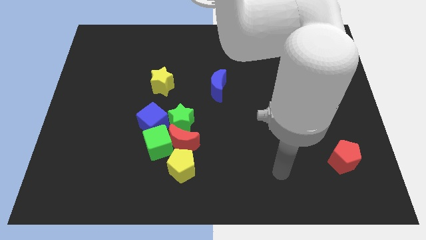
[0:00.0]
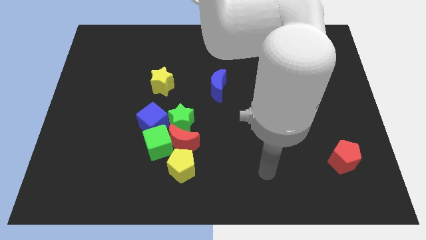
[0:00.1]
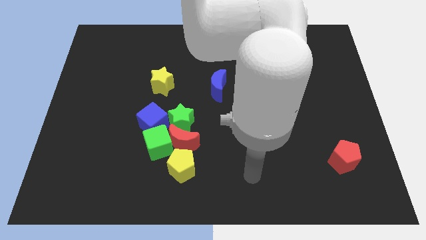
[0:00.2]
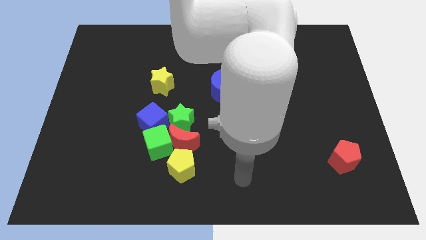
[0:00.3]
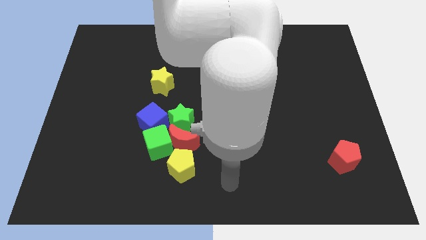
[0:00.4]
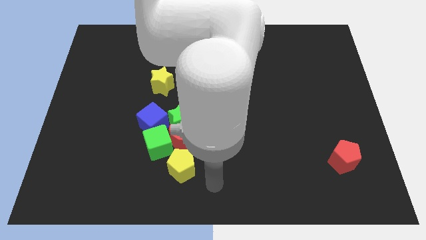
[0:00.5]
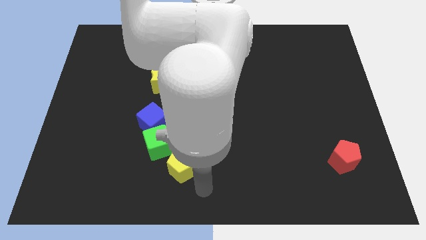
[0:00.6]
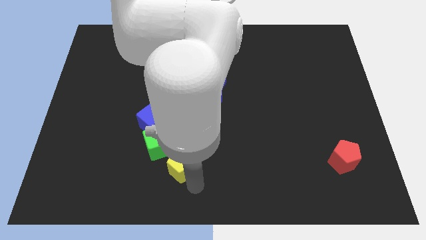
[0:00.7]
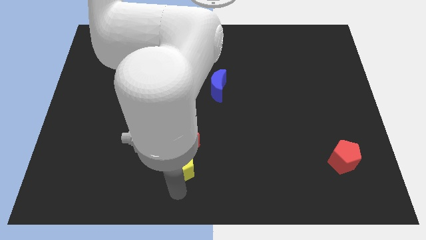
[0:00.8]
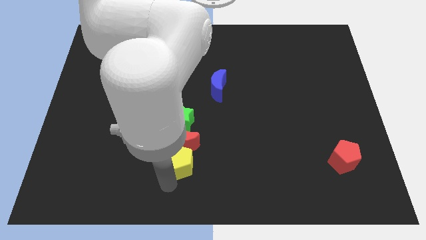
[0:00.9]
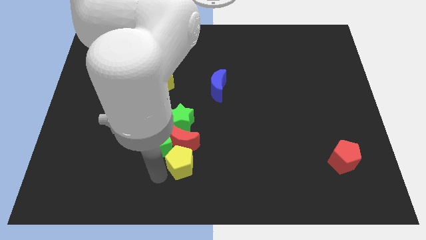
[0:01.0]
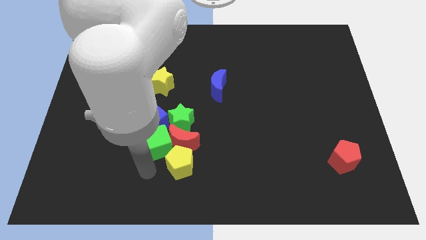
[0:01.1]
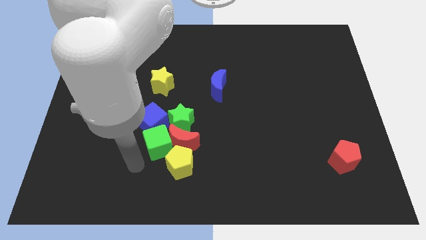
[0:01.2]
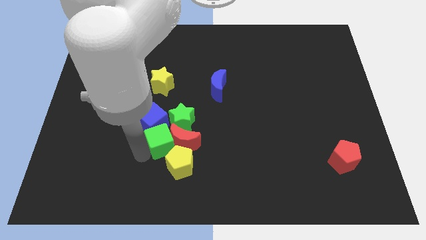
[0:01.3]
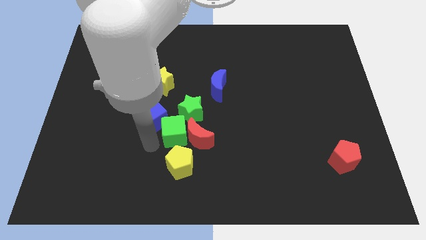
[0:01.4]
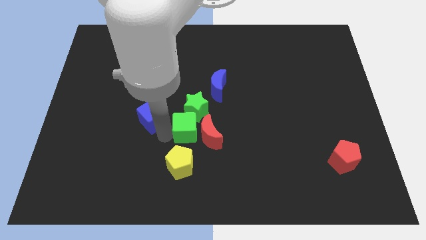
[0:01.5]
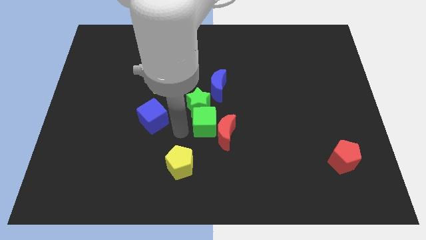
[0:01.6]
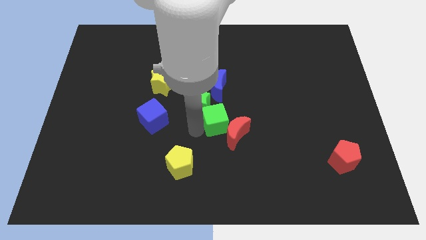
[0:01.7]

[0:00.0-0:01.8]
separate the red moon from the group

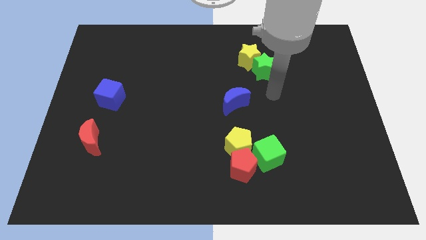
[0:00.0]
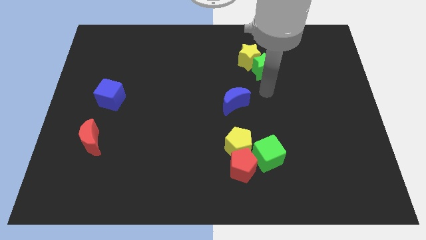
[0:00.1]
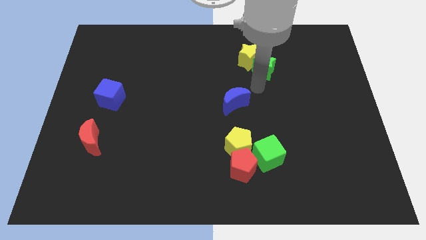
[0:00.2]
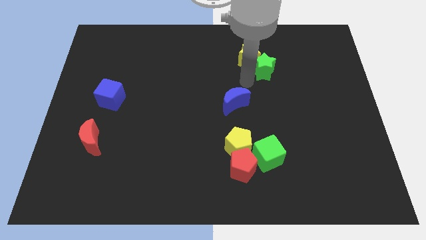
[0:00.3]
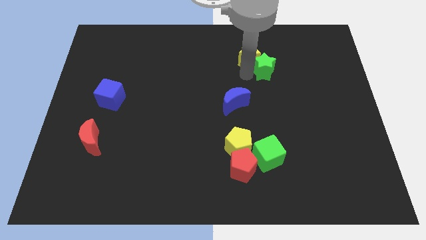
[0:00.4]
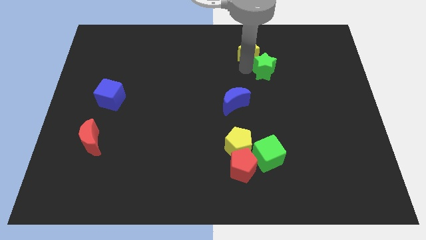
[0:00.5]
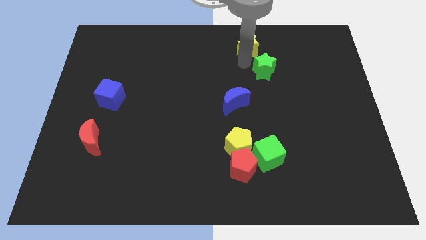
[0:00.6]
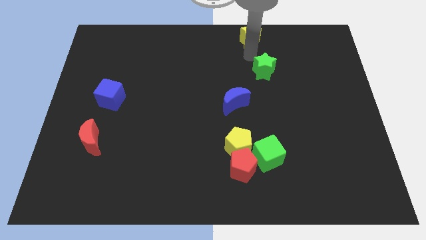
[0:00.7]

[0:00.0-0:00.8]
pull the green star apart from the yellow star

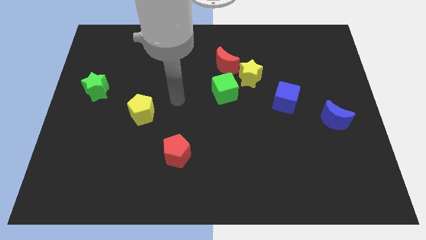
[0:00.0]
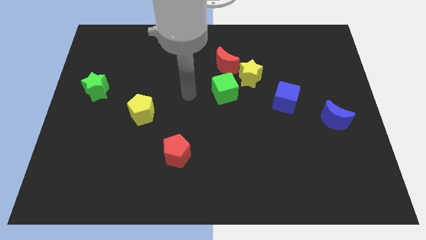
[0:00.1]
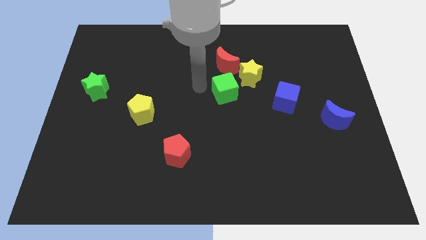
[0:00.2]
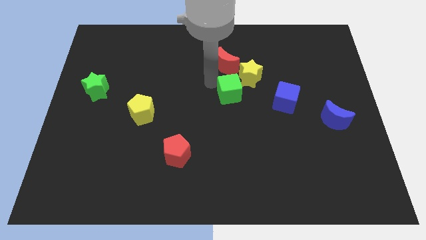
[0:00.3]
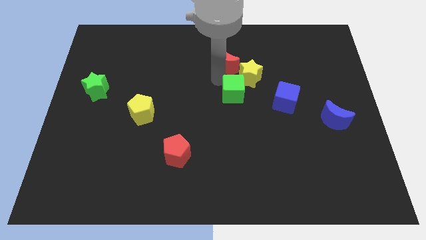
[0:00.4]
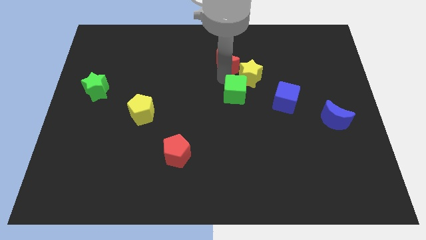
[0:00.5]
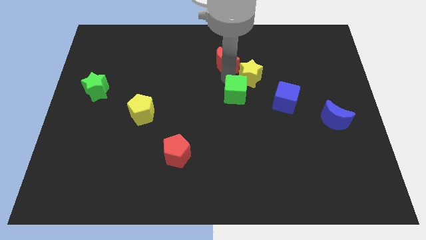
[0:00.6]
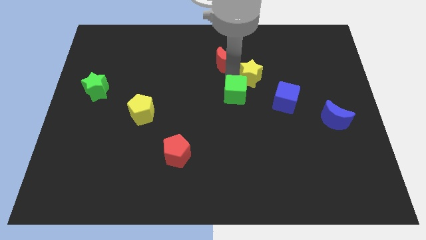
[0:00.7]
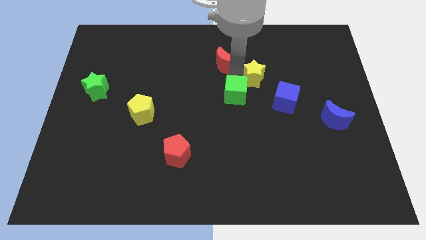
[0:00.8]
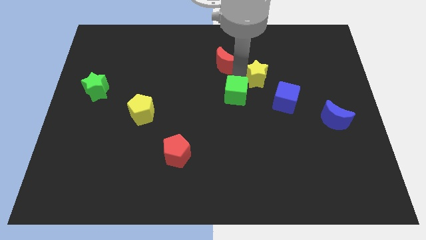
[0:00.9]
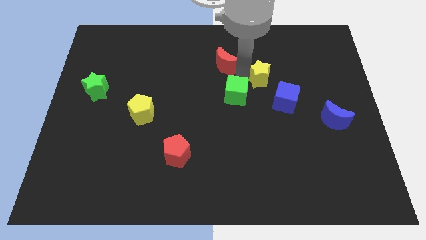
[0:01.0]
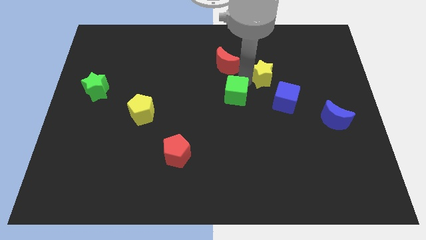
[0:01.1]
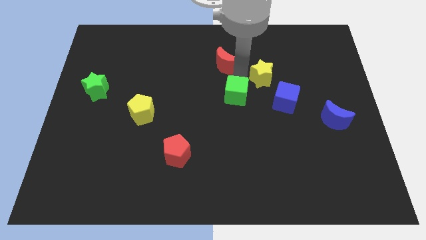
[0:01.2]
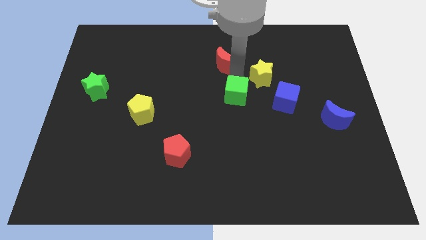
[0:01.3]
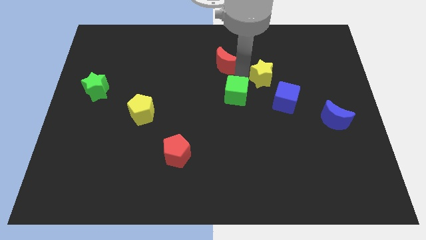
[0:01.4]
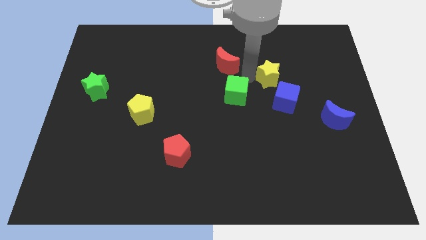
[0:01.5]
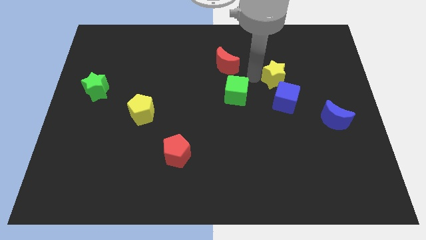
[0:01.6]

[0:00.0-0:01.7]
separate the yellow star from the red moon and green cube

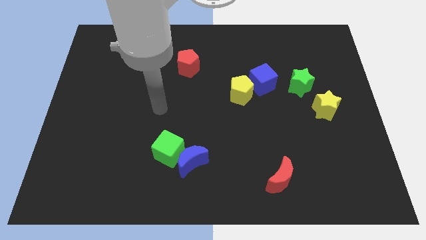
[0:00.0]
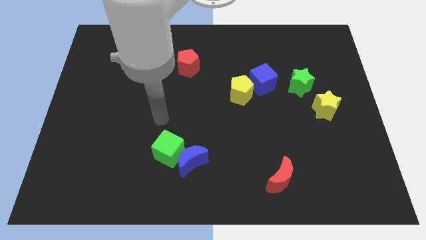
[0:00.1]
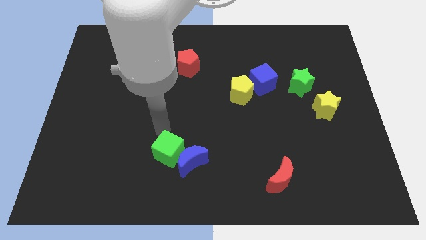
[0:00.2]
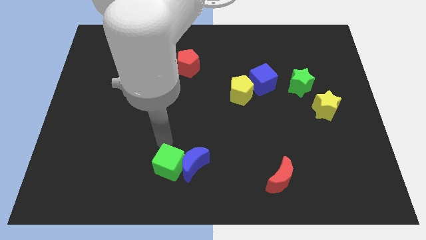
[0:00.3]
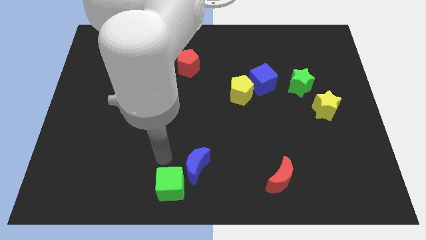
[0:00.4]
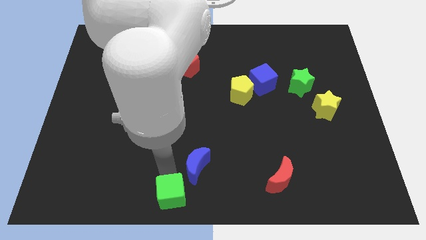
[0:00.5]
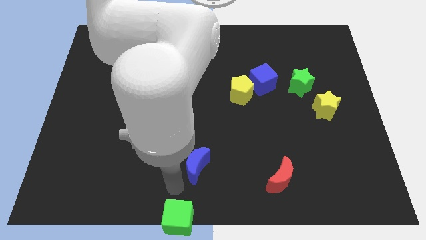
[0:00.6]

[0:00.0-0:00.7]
move the blue moon away from the green cube

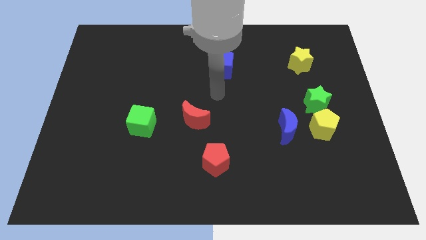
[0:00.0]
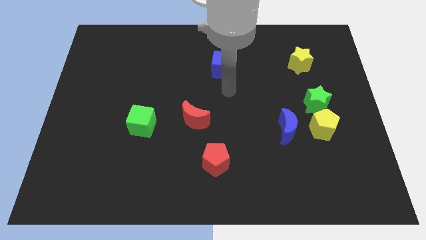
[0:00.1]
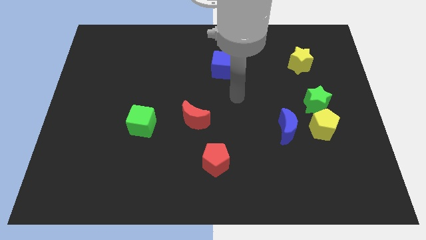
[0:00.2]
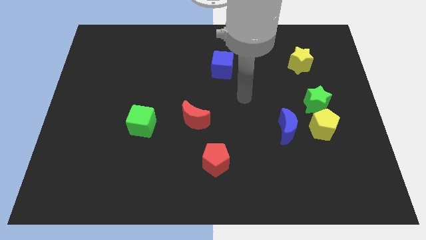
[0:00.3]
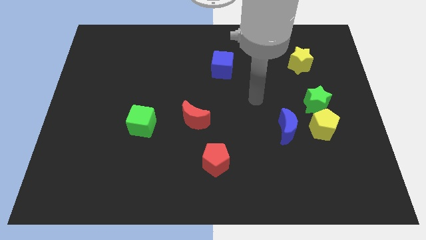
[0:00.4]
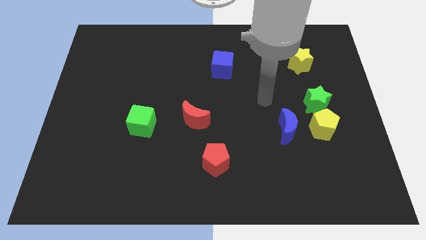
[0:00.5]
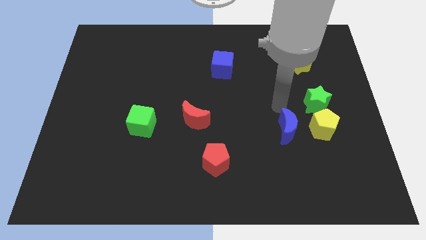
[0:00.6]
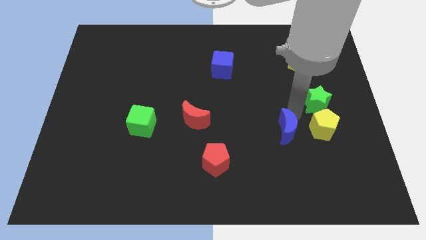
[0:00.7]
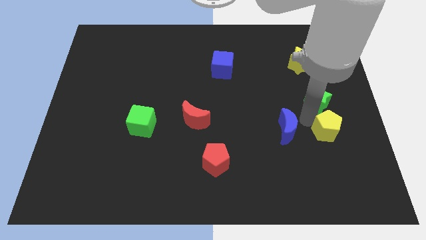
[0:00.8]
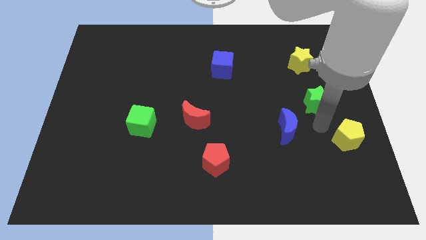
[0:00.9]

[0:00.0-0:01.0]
pull the green star apart from the yellow pentagon

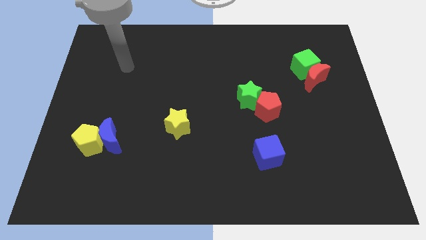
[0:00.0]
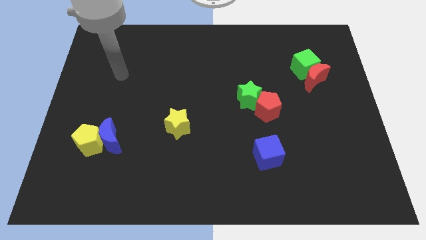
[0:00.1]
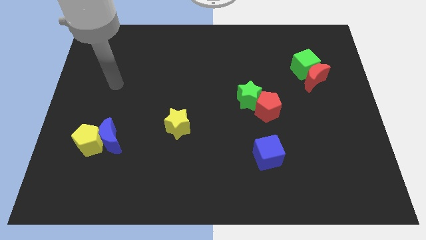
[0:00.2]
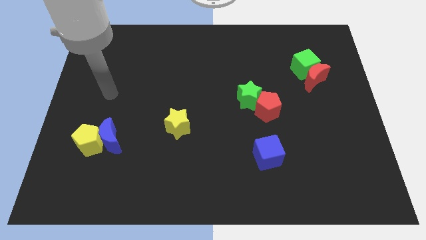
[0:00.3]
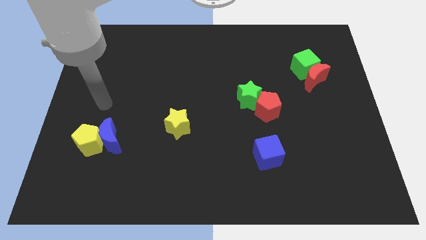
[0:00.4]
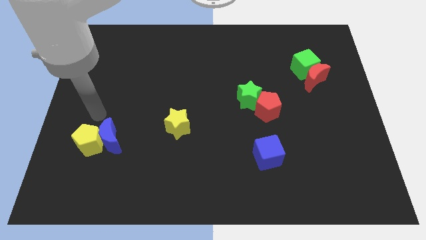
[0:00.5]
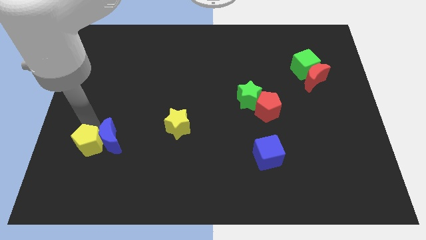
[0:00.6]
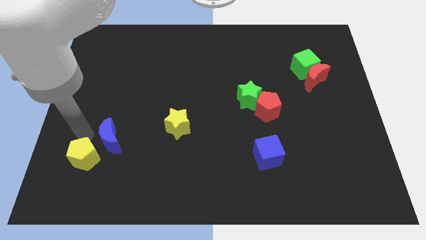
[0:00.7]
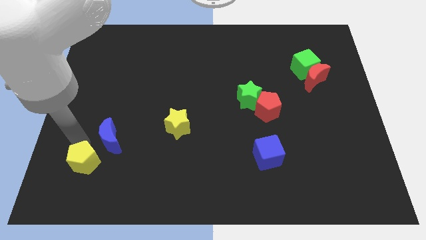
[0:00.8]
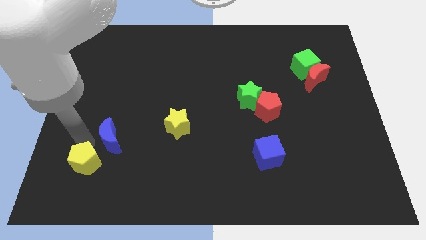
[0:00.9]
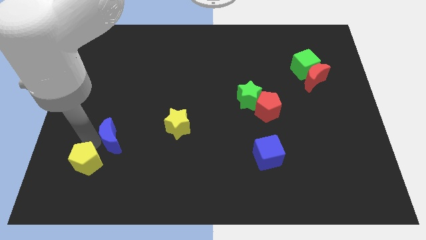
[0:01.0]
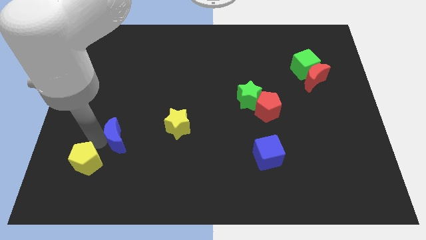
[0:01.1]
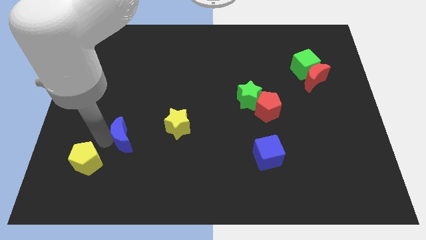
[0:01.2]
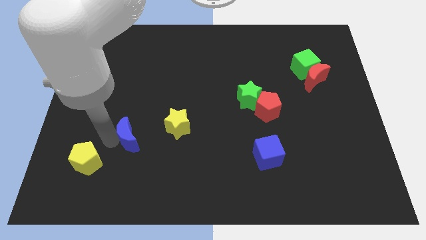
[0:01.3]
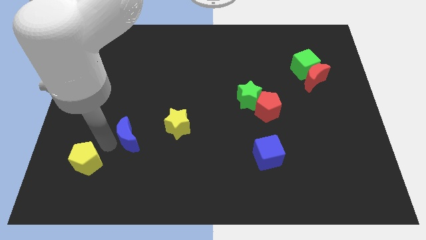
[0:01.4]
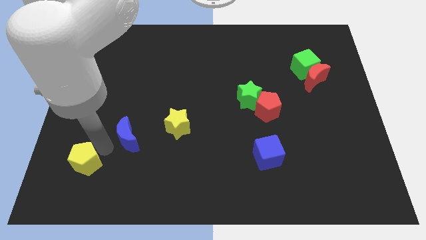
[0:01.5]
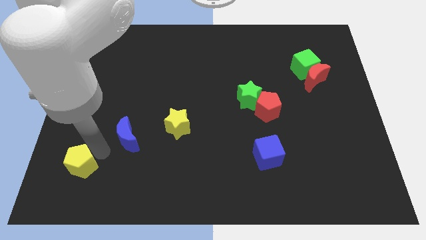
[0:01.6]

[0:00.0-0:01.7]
separate the blue moon from the yellow pentagon

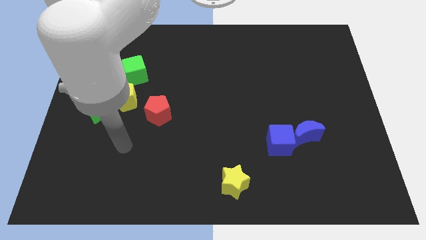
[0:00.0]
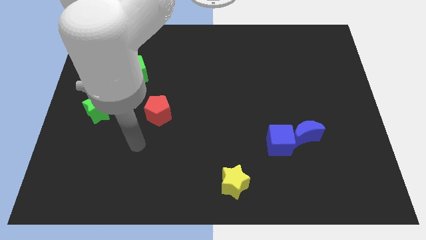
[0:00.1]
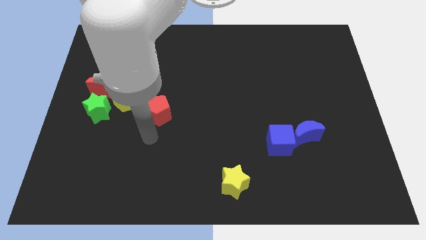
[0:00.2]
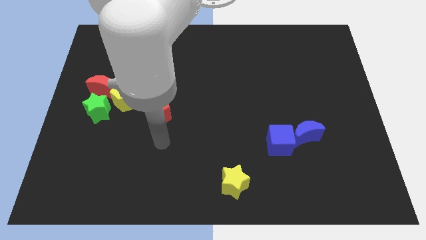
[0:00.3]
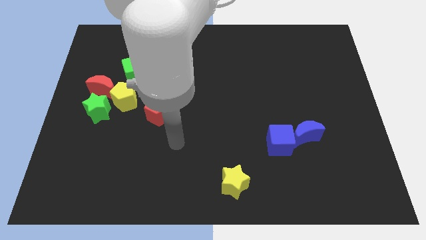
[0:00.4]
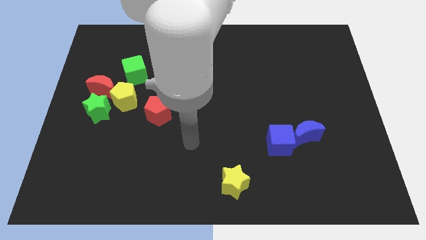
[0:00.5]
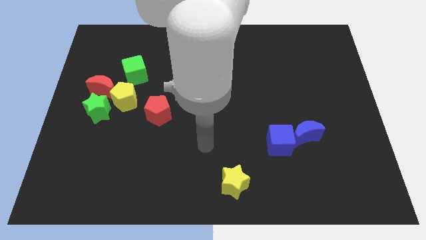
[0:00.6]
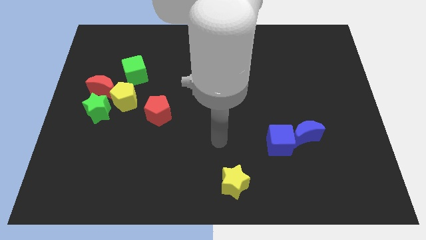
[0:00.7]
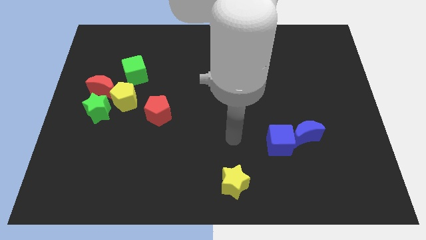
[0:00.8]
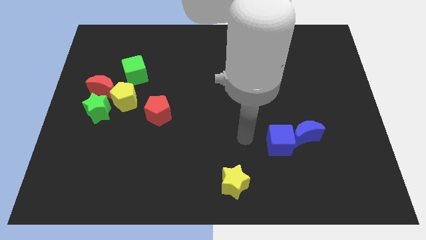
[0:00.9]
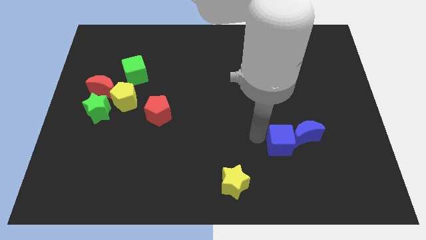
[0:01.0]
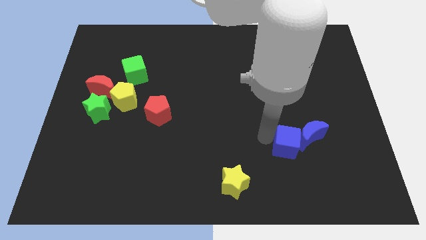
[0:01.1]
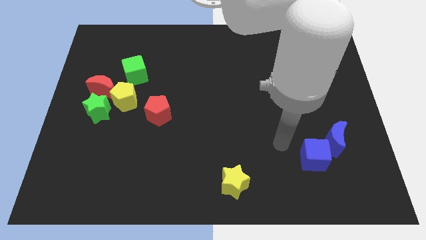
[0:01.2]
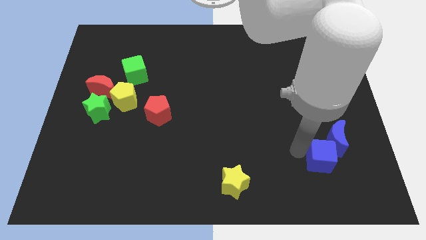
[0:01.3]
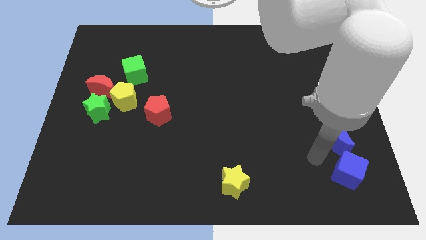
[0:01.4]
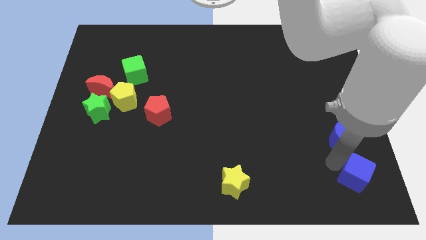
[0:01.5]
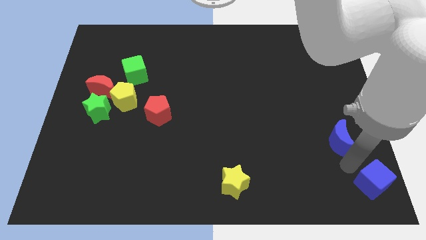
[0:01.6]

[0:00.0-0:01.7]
pull the blue moon apart from the blue cube

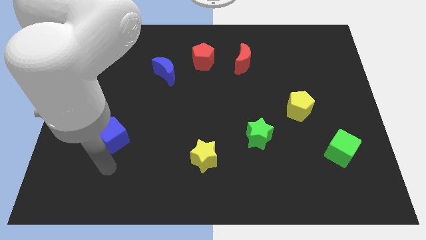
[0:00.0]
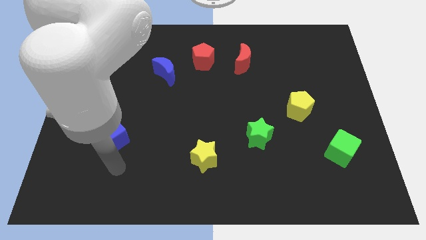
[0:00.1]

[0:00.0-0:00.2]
move the red pentagon away from the blue moon
